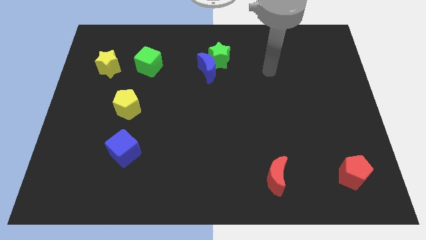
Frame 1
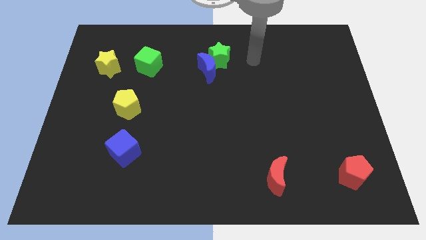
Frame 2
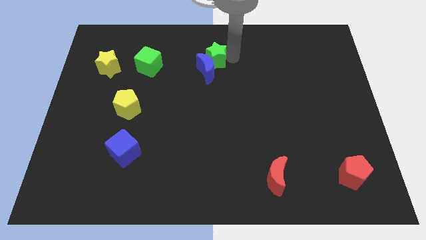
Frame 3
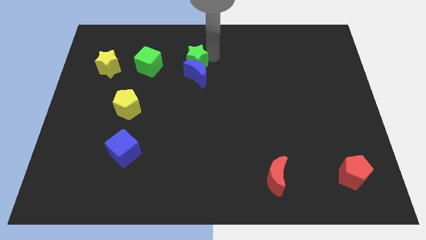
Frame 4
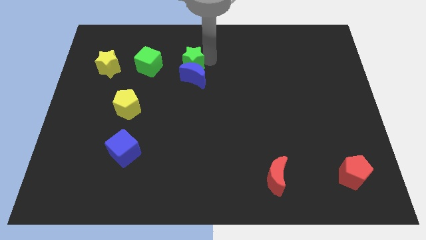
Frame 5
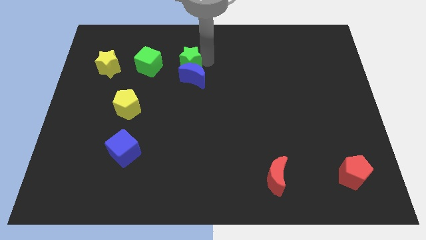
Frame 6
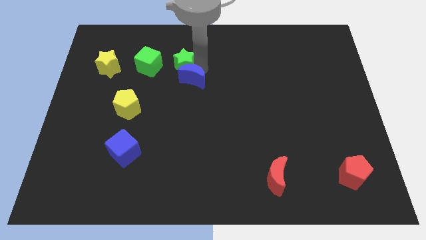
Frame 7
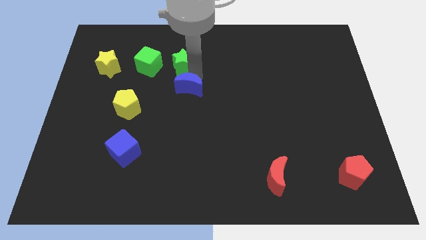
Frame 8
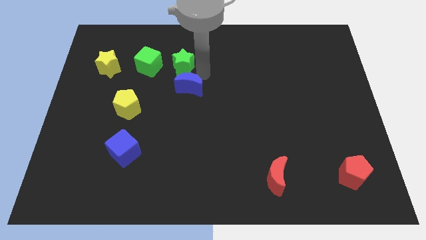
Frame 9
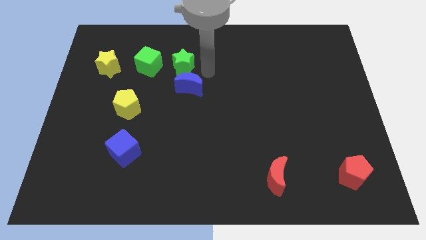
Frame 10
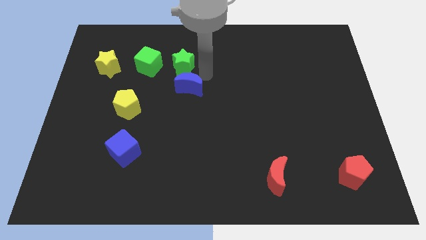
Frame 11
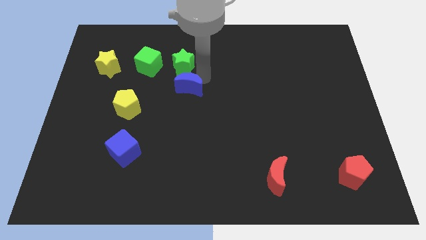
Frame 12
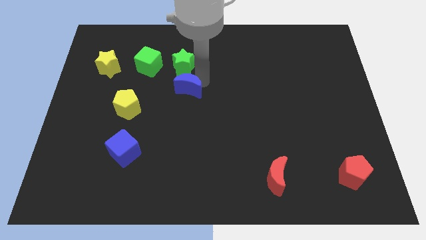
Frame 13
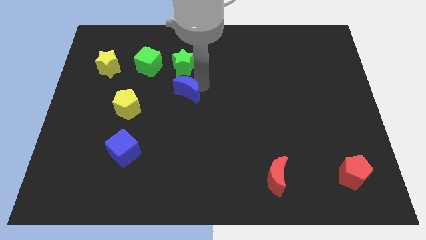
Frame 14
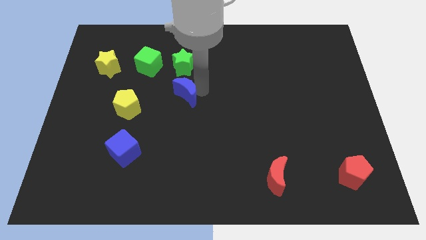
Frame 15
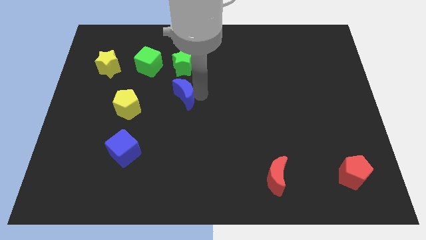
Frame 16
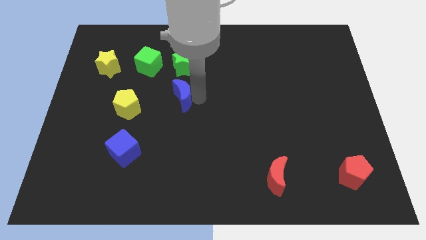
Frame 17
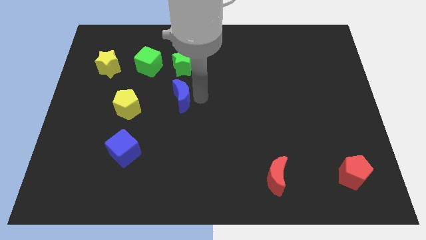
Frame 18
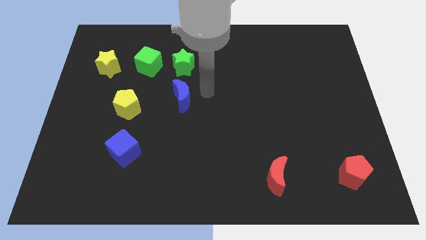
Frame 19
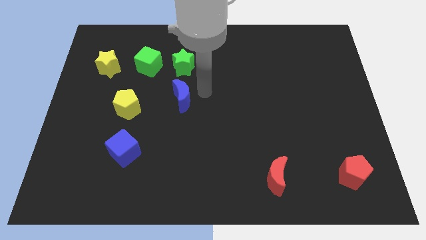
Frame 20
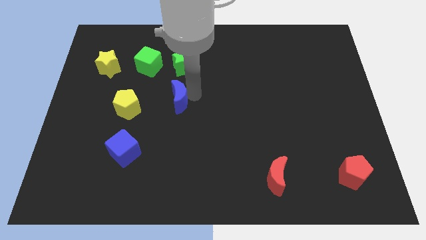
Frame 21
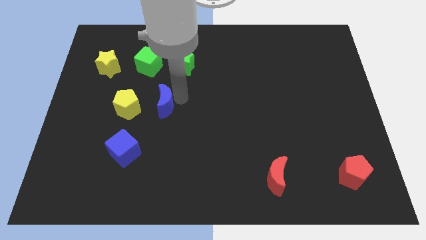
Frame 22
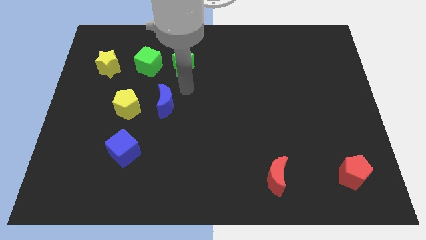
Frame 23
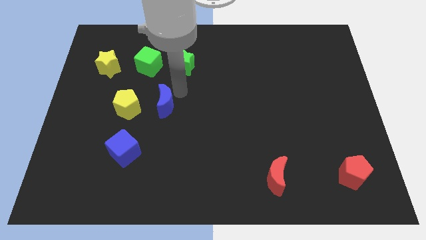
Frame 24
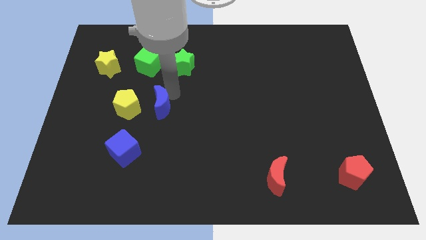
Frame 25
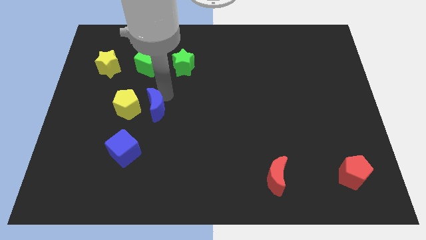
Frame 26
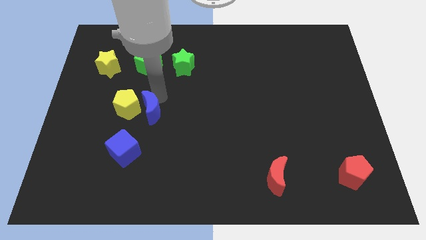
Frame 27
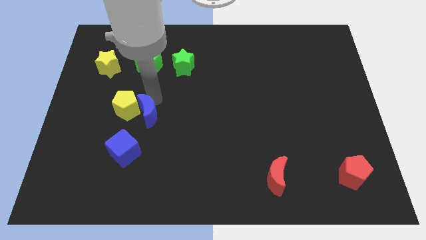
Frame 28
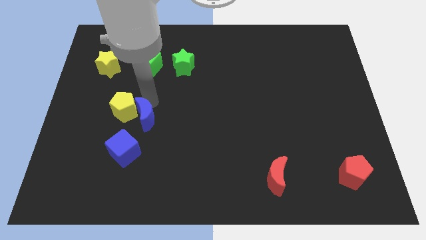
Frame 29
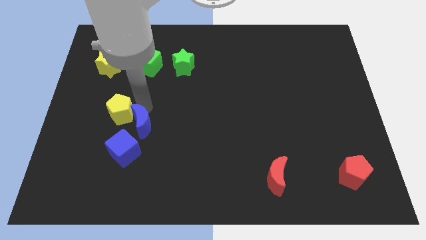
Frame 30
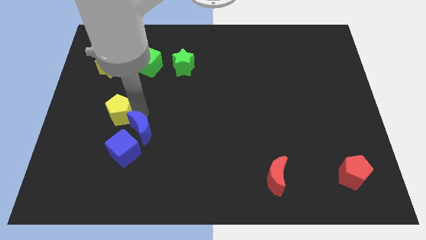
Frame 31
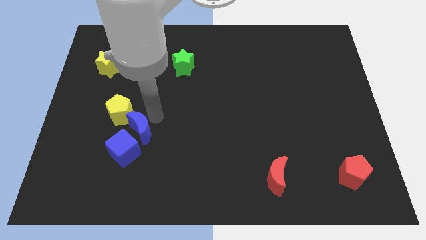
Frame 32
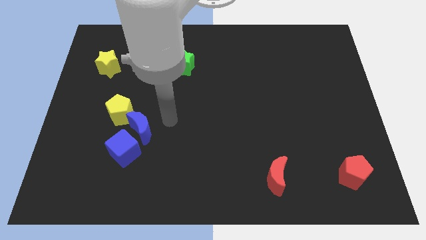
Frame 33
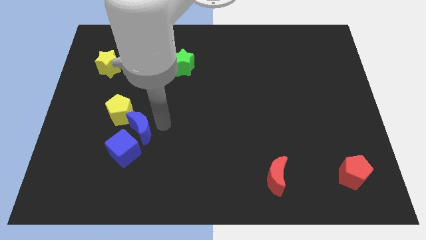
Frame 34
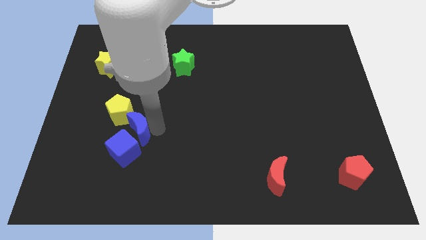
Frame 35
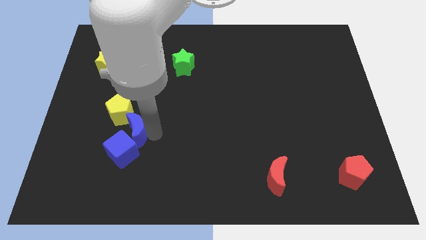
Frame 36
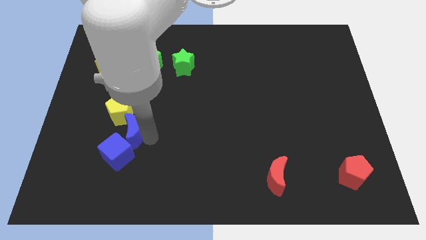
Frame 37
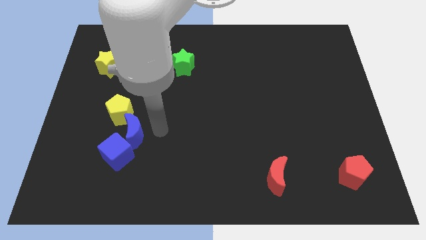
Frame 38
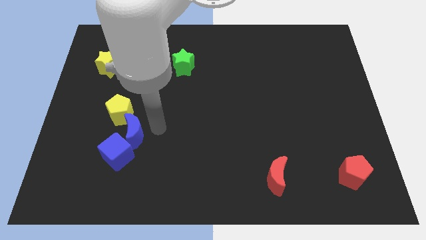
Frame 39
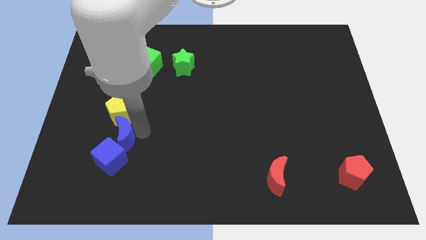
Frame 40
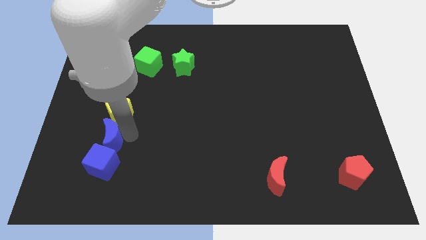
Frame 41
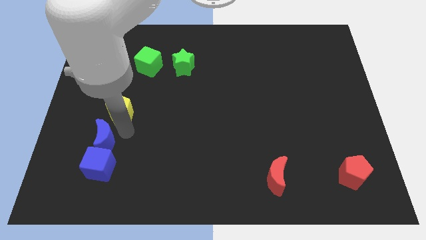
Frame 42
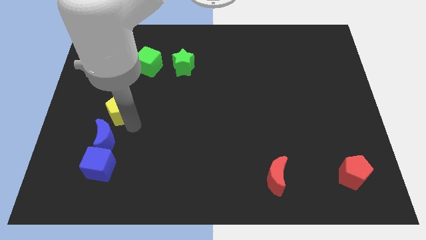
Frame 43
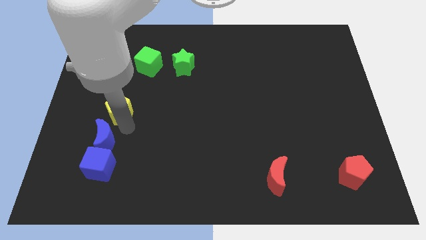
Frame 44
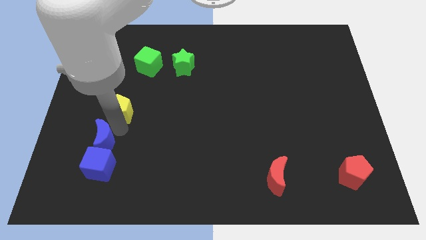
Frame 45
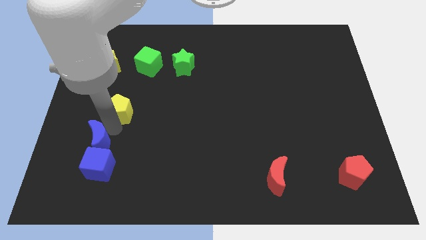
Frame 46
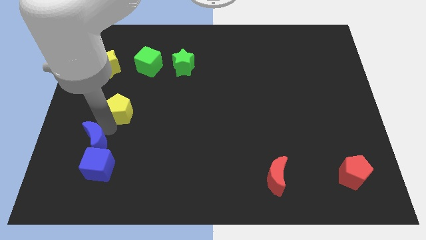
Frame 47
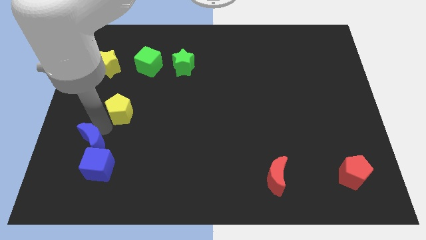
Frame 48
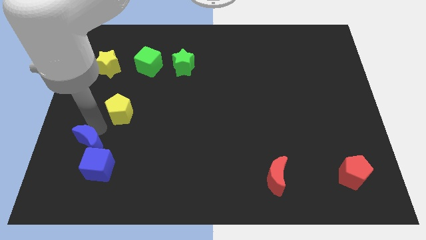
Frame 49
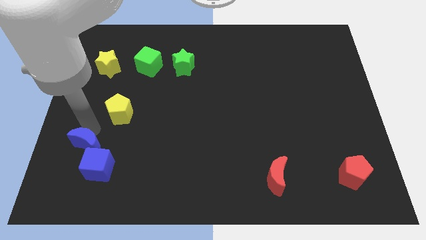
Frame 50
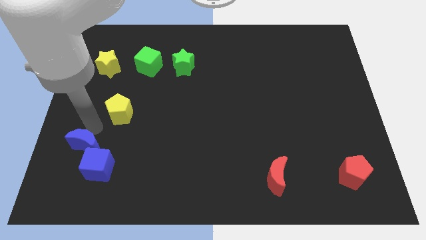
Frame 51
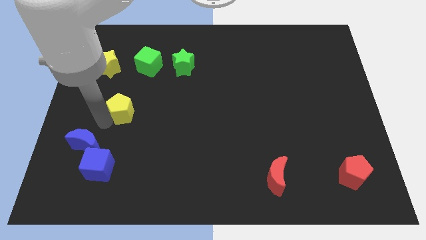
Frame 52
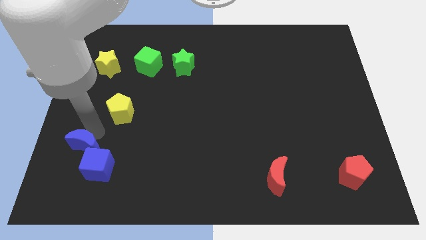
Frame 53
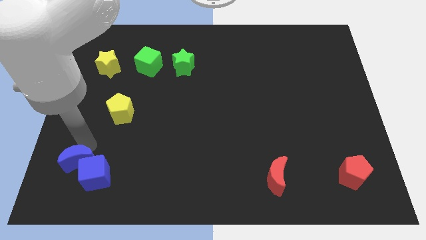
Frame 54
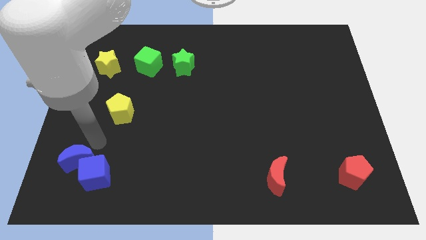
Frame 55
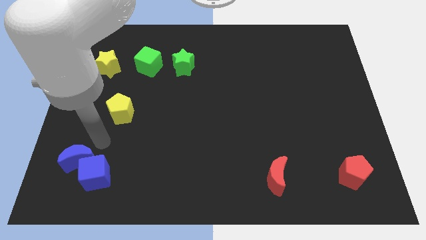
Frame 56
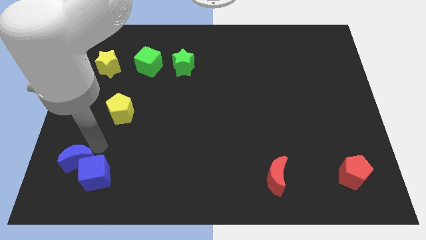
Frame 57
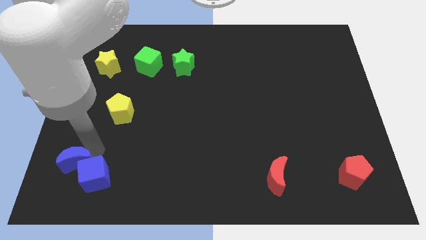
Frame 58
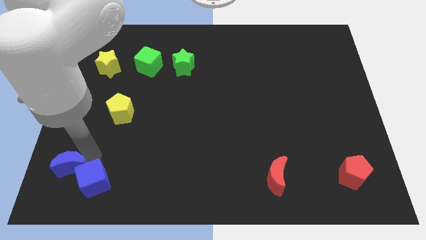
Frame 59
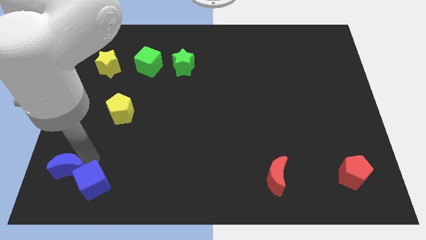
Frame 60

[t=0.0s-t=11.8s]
push the blue moon to the bottom left of the board
